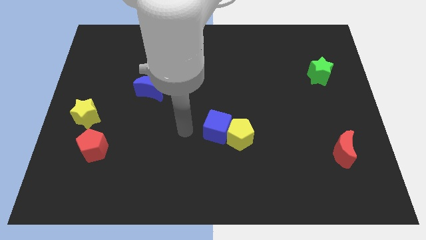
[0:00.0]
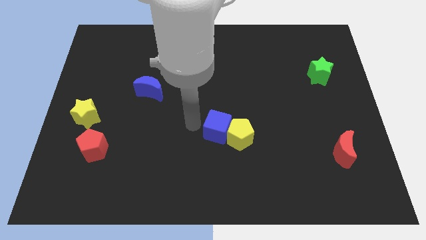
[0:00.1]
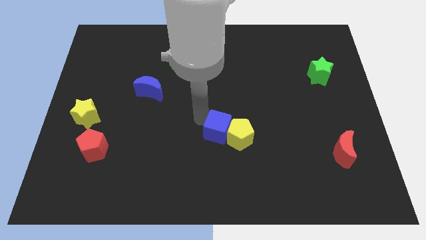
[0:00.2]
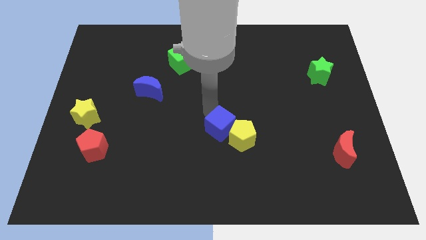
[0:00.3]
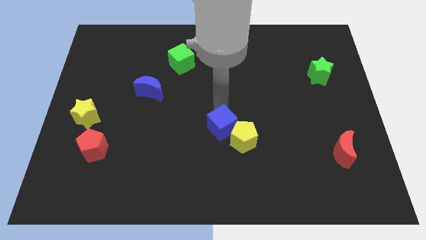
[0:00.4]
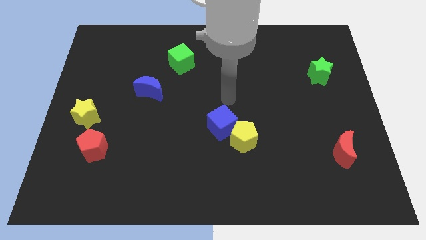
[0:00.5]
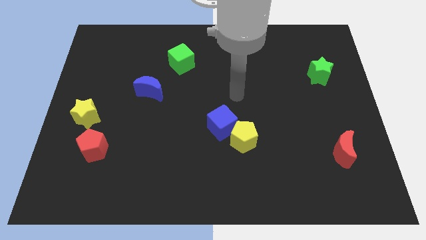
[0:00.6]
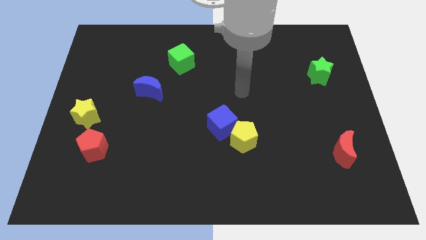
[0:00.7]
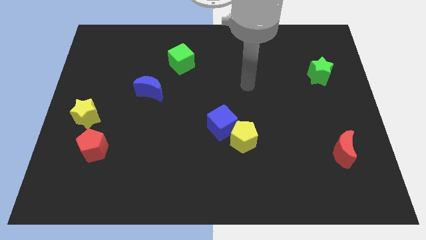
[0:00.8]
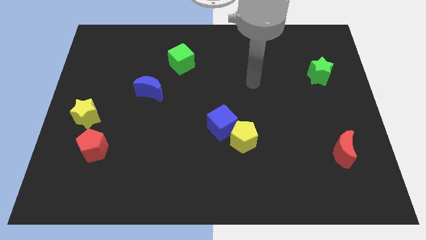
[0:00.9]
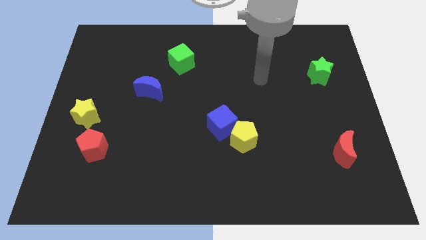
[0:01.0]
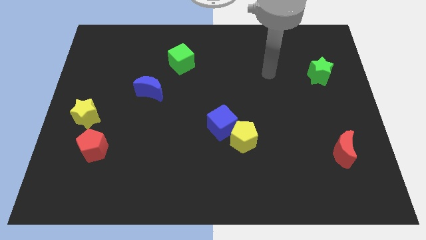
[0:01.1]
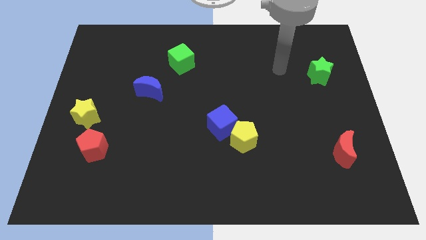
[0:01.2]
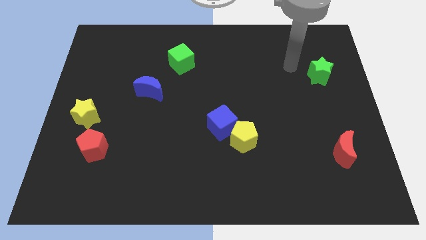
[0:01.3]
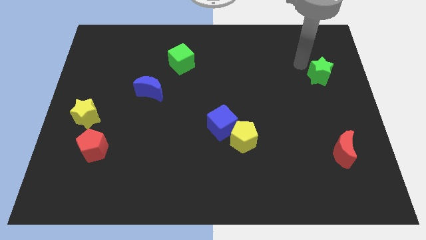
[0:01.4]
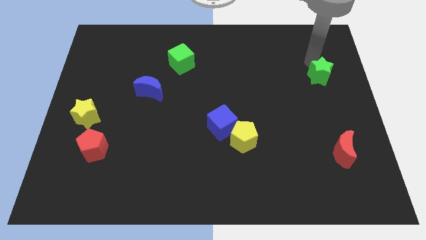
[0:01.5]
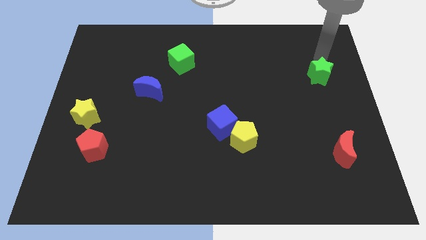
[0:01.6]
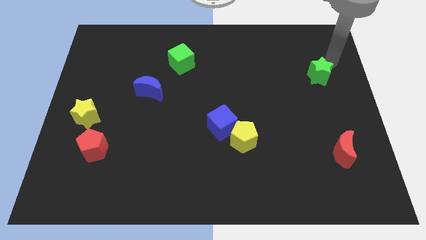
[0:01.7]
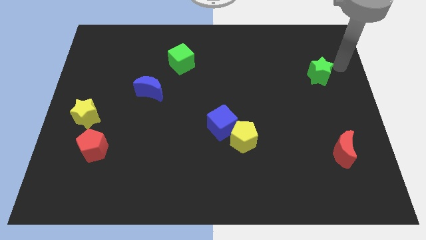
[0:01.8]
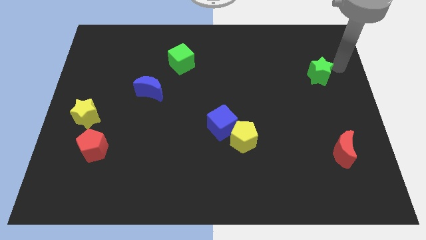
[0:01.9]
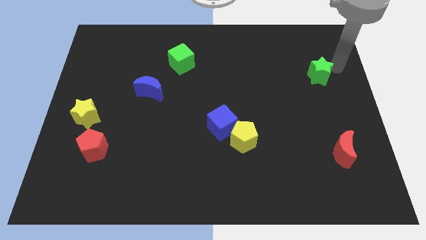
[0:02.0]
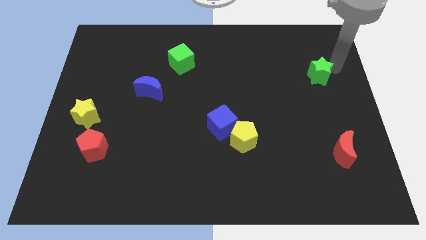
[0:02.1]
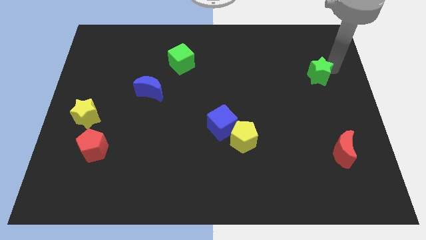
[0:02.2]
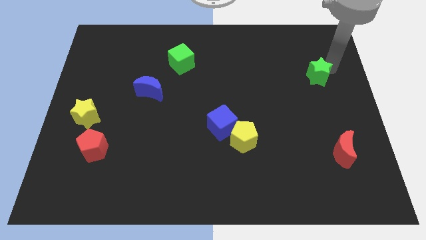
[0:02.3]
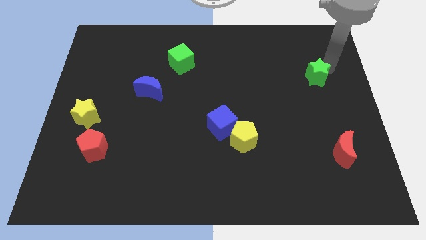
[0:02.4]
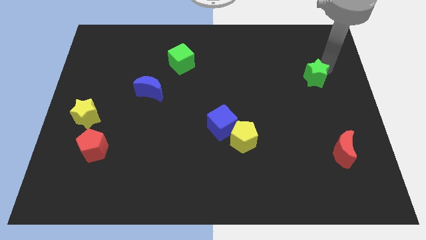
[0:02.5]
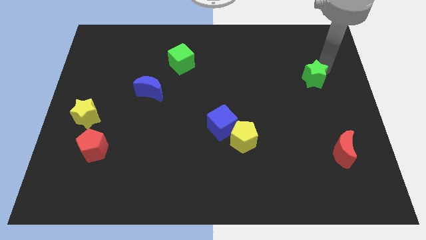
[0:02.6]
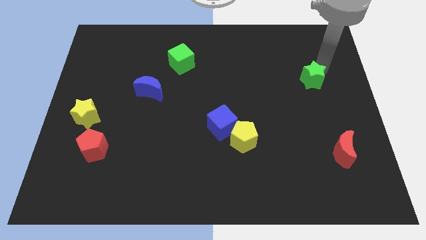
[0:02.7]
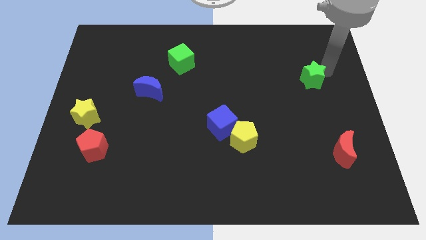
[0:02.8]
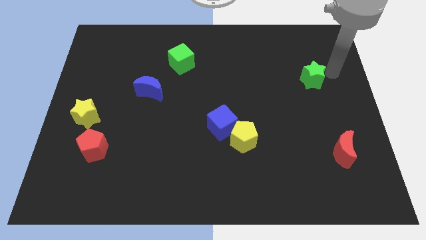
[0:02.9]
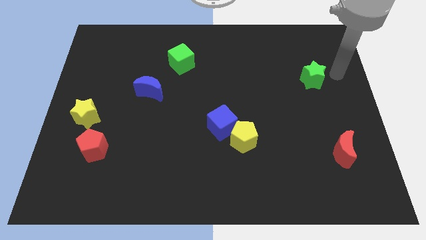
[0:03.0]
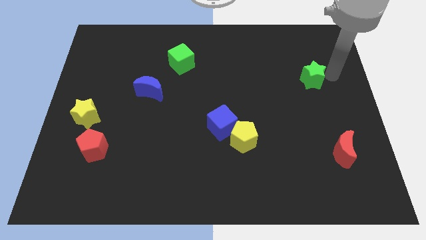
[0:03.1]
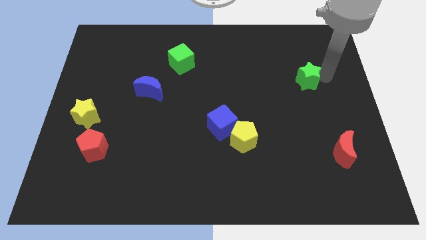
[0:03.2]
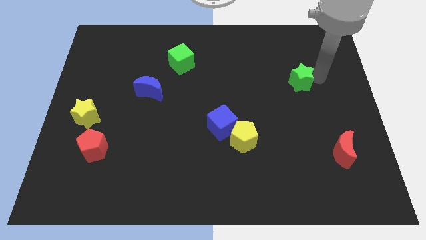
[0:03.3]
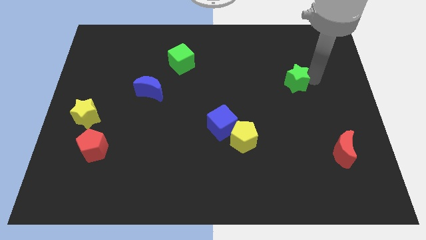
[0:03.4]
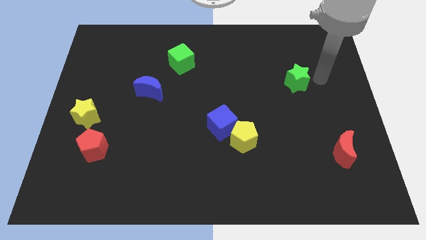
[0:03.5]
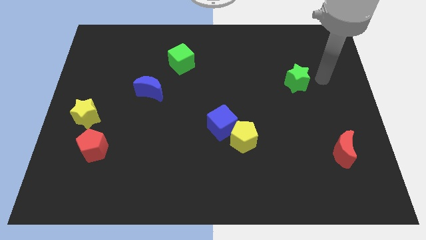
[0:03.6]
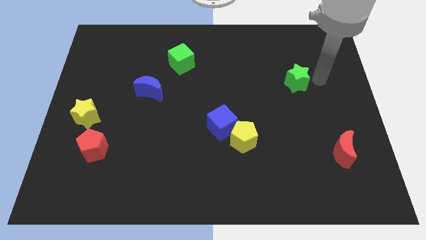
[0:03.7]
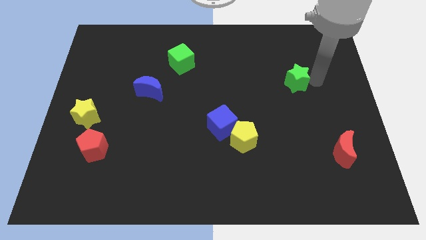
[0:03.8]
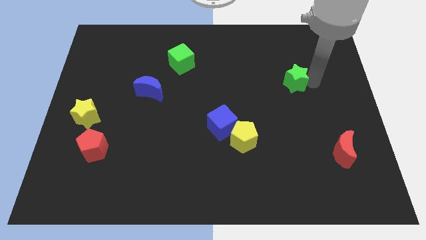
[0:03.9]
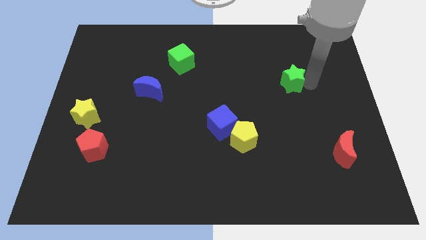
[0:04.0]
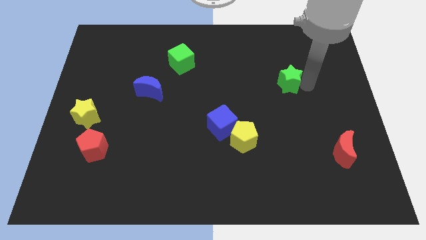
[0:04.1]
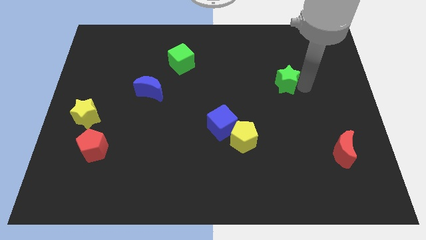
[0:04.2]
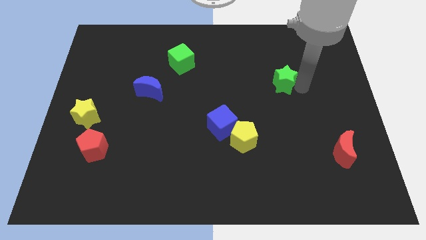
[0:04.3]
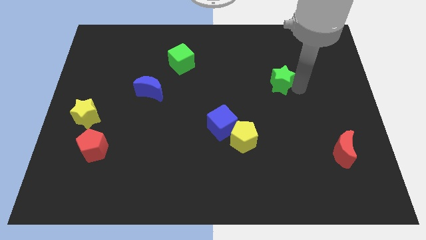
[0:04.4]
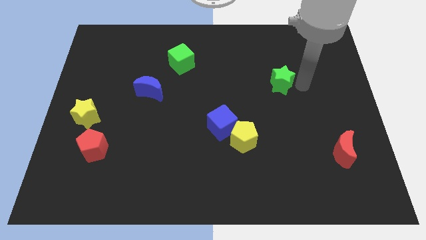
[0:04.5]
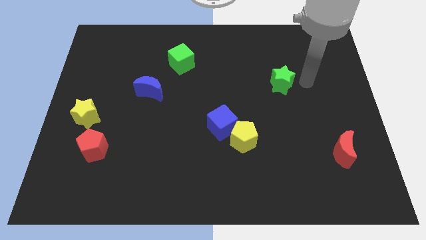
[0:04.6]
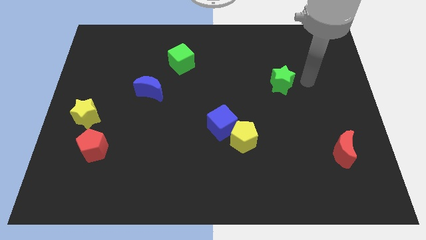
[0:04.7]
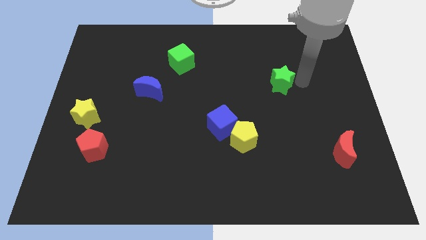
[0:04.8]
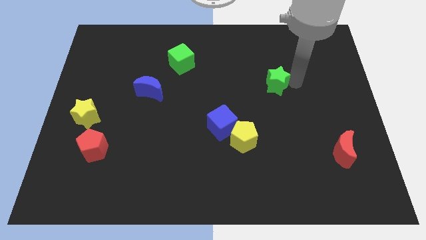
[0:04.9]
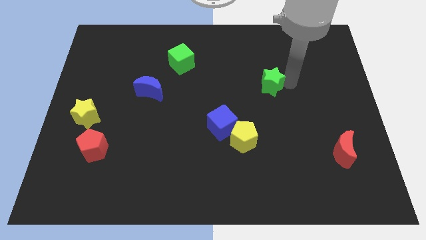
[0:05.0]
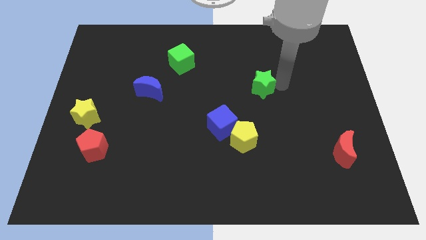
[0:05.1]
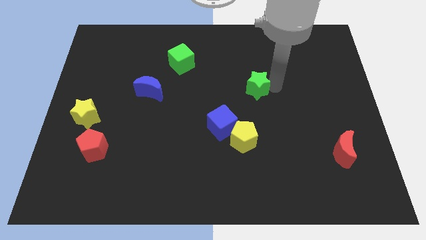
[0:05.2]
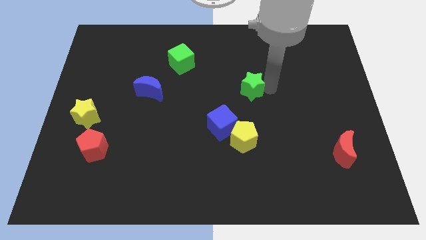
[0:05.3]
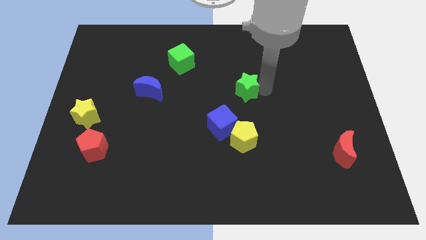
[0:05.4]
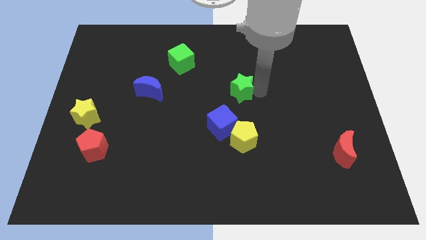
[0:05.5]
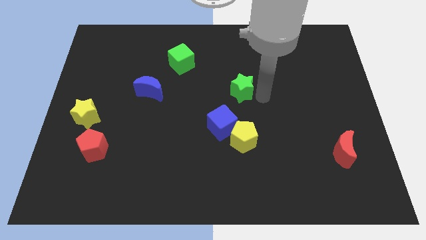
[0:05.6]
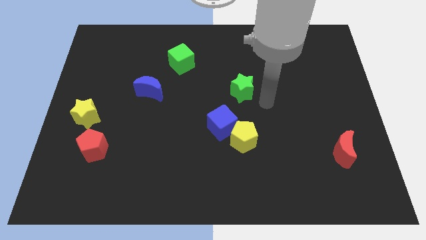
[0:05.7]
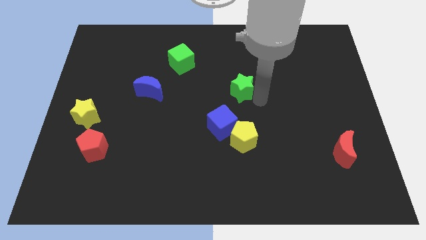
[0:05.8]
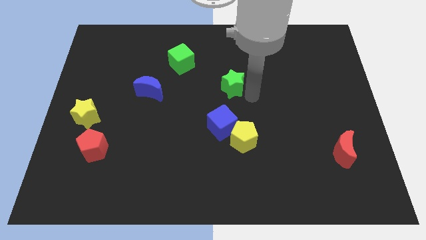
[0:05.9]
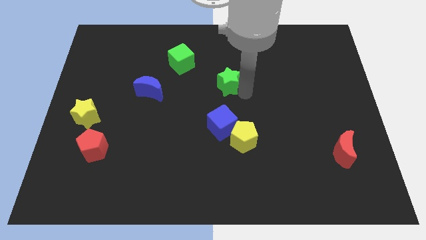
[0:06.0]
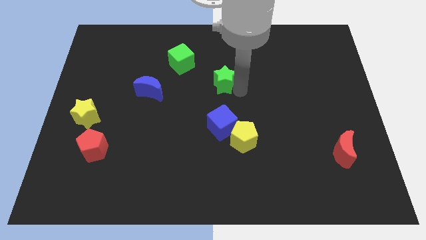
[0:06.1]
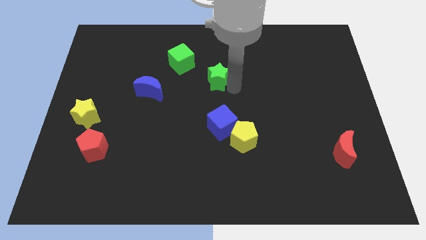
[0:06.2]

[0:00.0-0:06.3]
move the green star diagonally down and to the right of the green cube

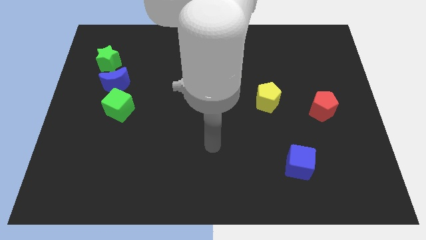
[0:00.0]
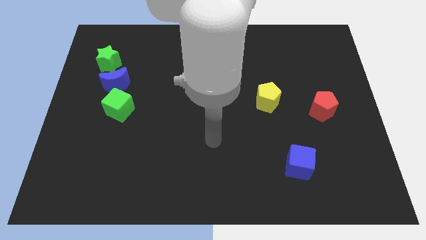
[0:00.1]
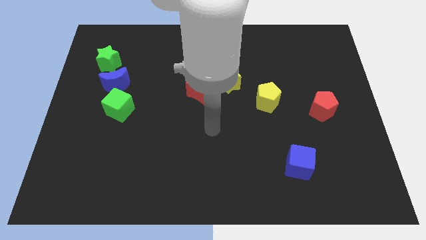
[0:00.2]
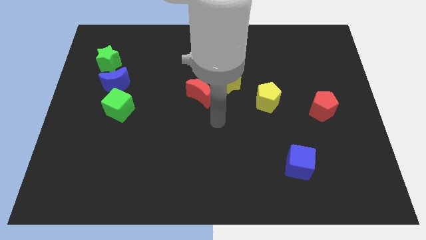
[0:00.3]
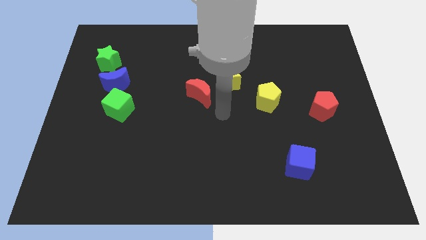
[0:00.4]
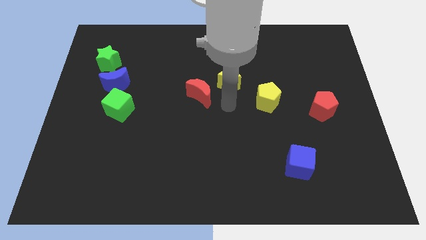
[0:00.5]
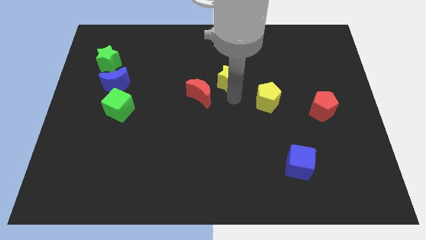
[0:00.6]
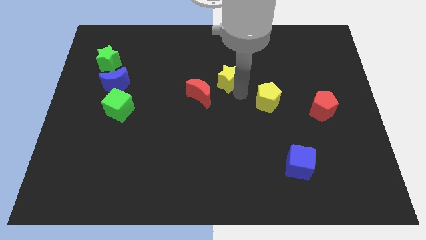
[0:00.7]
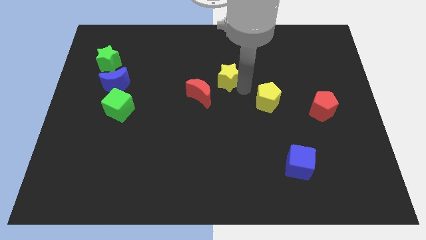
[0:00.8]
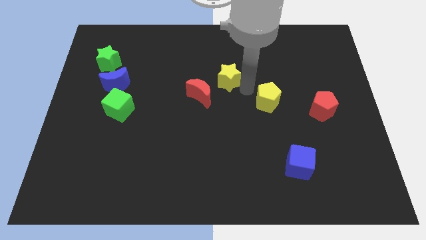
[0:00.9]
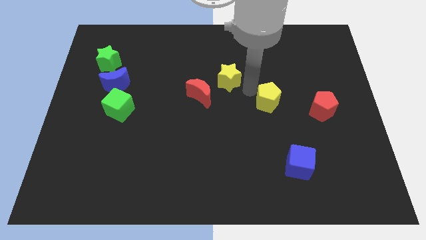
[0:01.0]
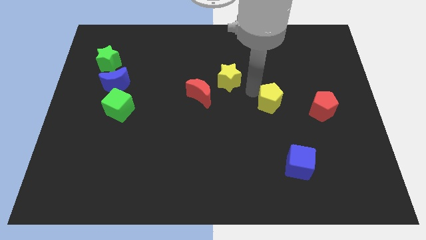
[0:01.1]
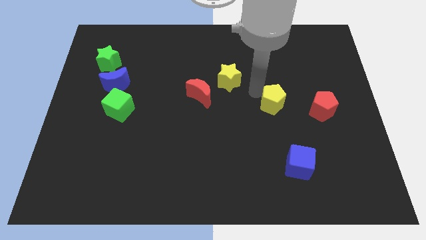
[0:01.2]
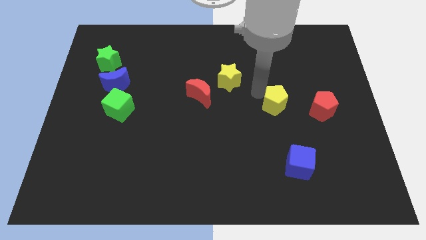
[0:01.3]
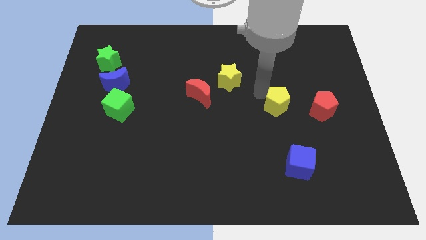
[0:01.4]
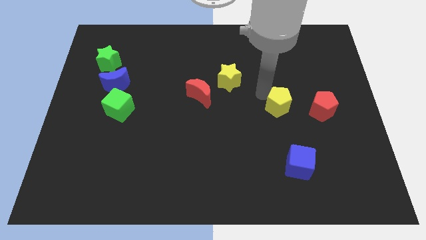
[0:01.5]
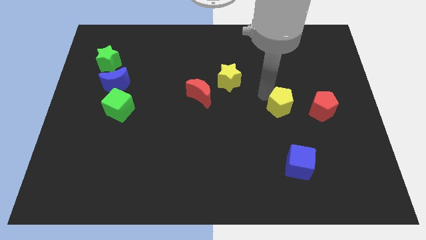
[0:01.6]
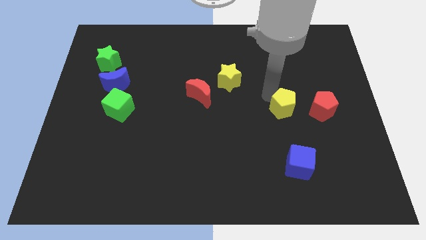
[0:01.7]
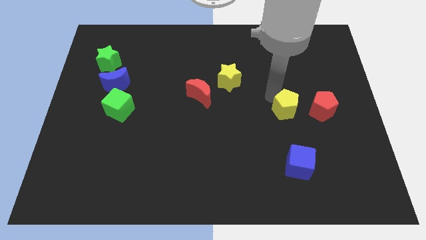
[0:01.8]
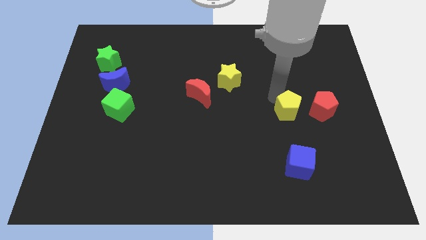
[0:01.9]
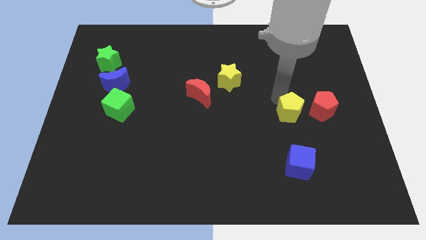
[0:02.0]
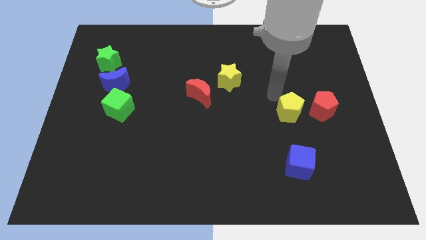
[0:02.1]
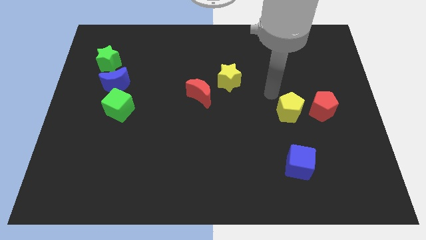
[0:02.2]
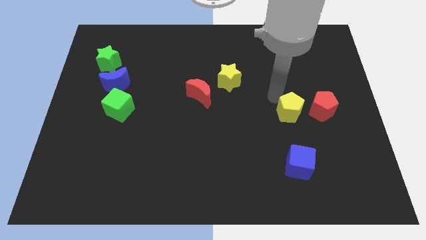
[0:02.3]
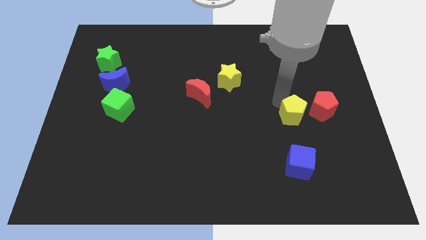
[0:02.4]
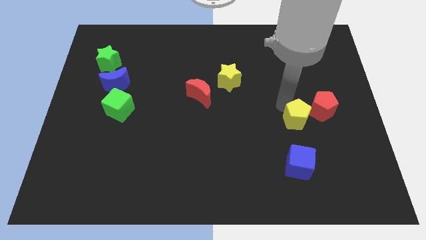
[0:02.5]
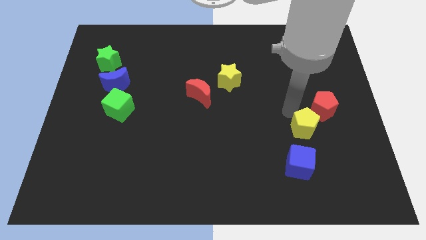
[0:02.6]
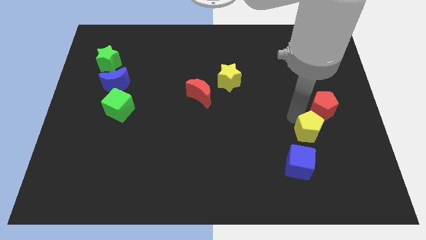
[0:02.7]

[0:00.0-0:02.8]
put the yellow pentagon to the top right of the blue cube
